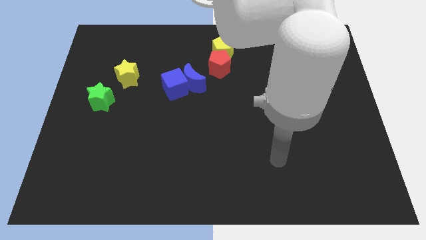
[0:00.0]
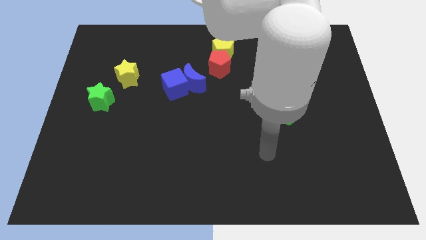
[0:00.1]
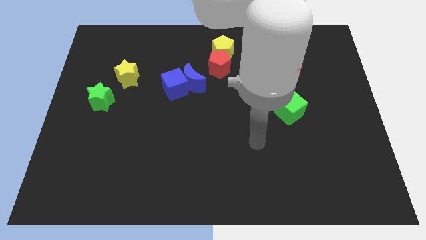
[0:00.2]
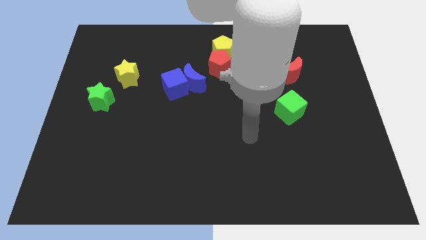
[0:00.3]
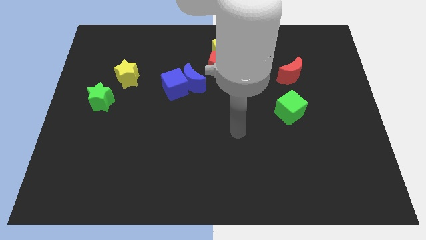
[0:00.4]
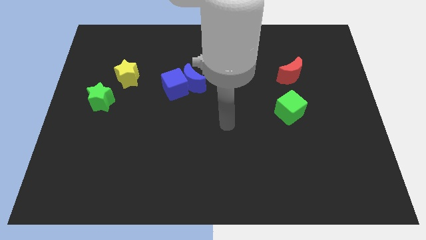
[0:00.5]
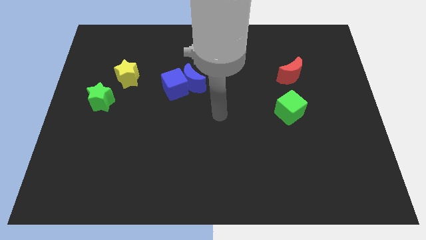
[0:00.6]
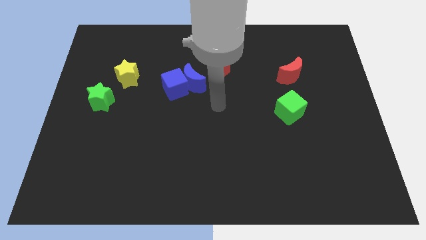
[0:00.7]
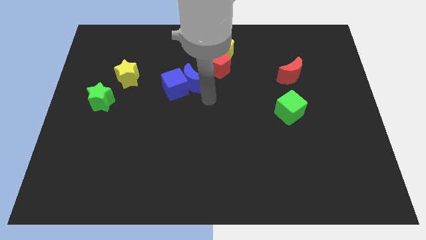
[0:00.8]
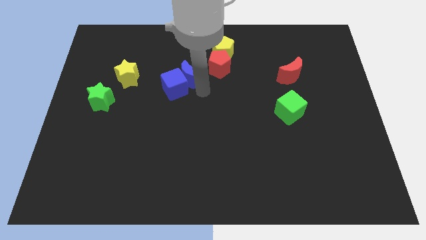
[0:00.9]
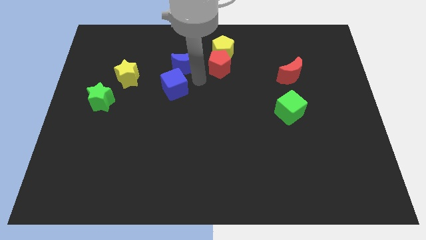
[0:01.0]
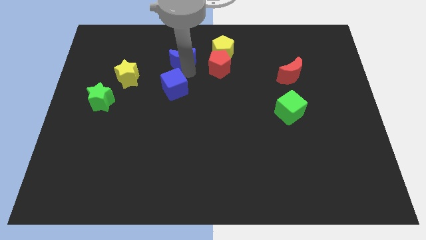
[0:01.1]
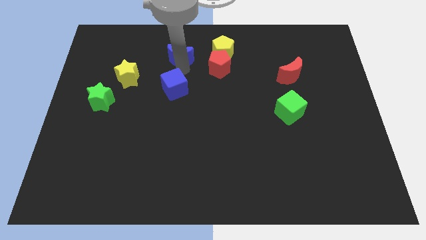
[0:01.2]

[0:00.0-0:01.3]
move the blue cube away from the blue moon

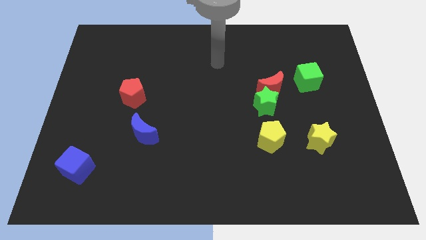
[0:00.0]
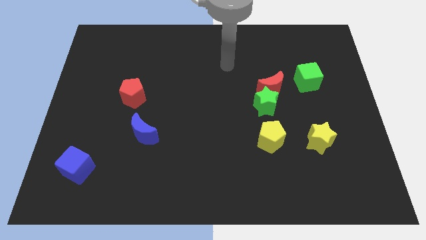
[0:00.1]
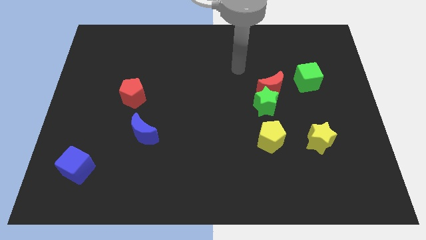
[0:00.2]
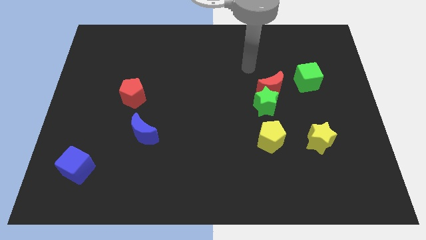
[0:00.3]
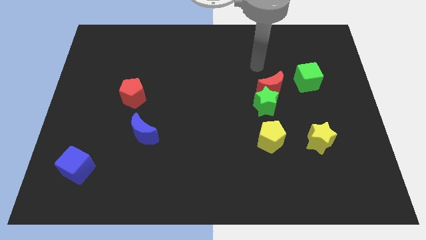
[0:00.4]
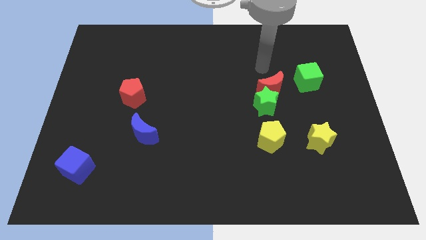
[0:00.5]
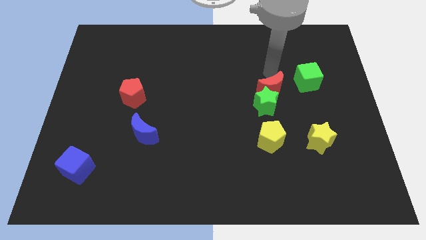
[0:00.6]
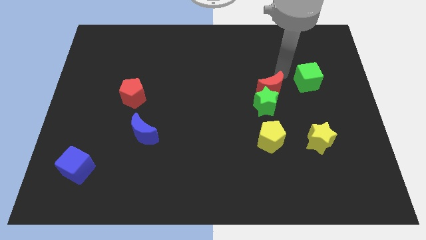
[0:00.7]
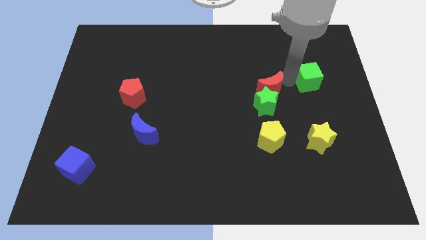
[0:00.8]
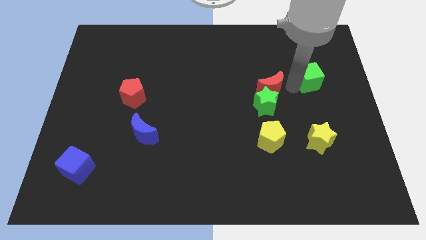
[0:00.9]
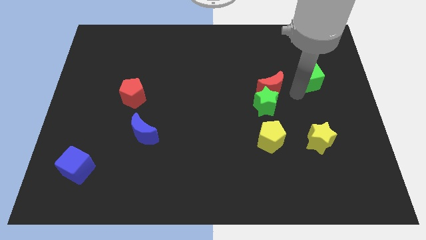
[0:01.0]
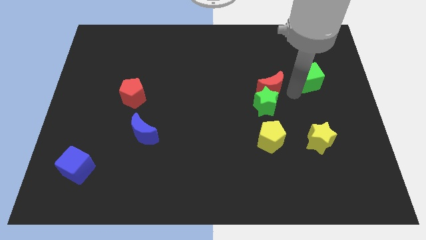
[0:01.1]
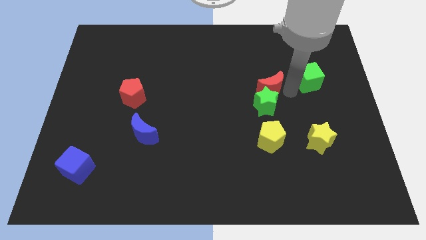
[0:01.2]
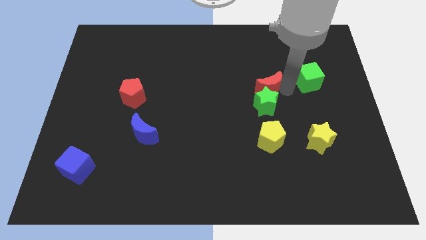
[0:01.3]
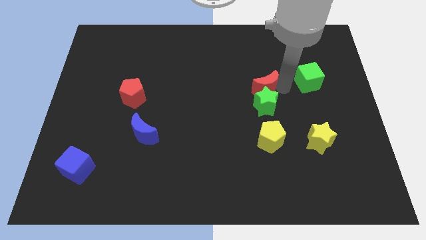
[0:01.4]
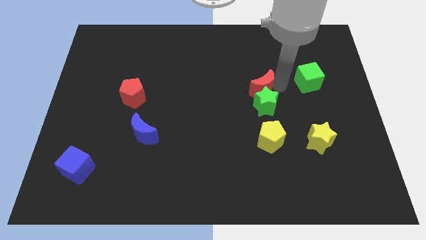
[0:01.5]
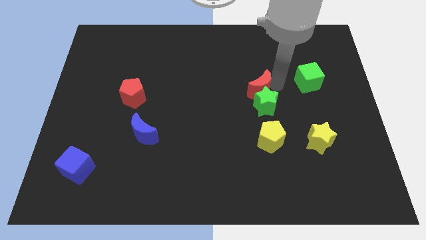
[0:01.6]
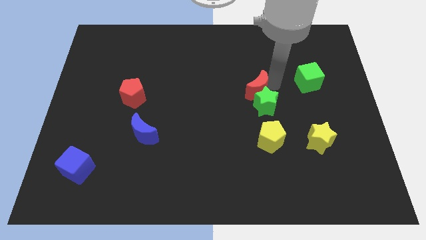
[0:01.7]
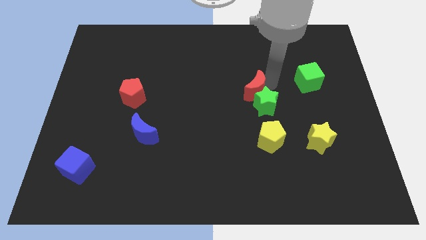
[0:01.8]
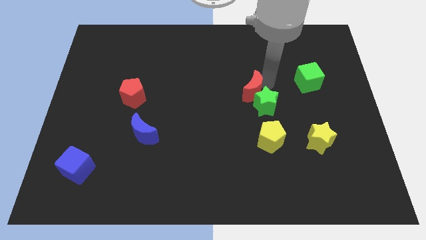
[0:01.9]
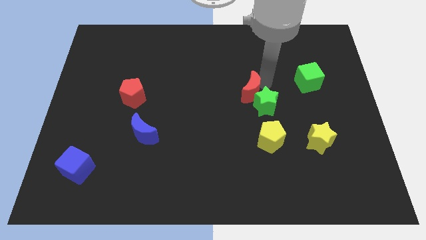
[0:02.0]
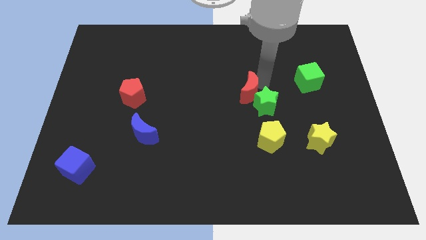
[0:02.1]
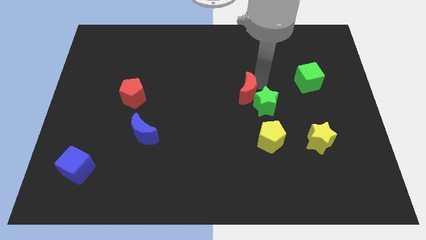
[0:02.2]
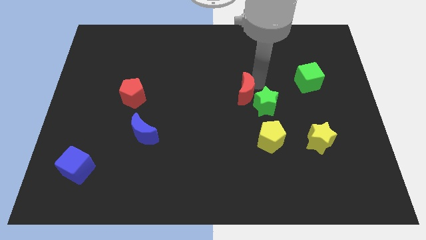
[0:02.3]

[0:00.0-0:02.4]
move the red moon away from the green star and green cube

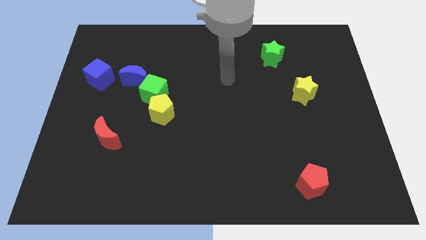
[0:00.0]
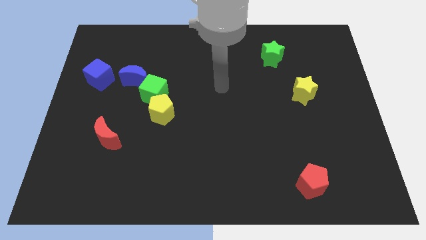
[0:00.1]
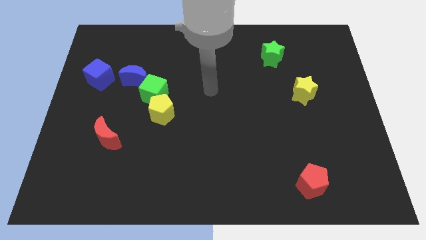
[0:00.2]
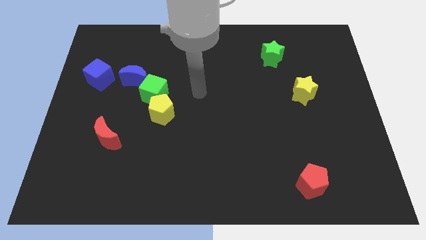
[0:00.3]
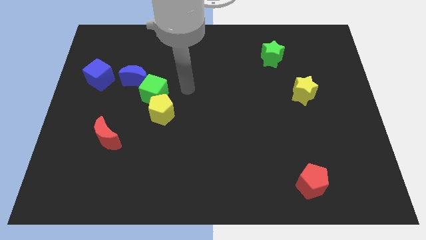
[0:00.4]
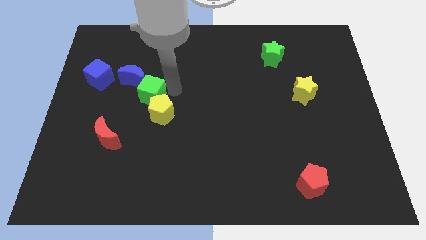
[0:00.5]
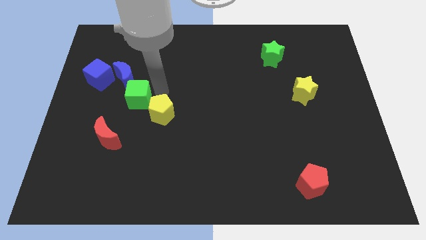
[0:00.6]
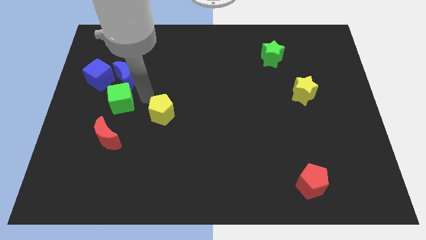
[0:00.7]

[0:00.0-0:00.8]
separate the yellow pentagon from the green cube

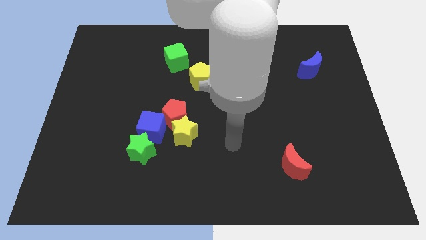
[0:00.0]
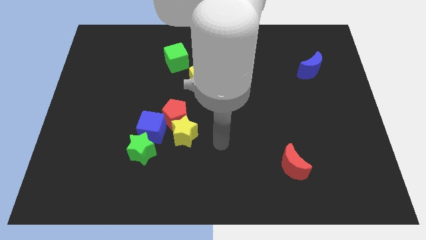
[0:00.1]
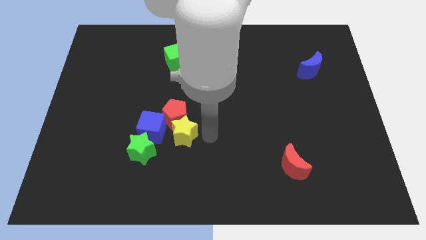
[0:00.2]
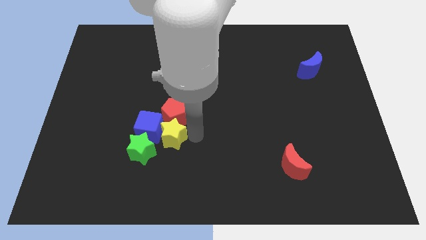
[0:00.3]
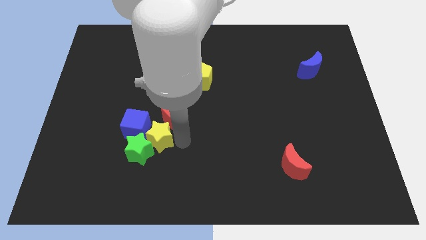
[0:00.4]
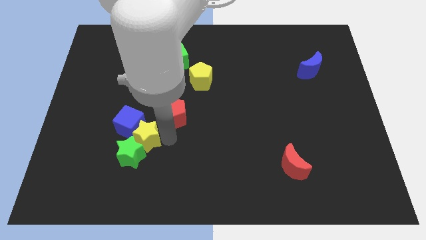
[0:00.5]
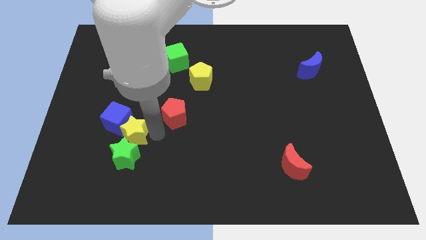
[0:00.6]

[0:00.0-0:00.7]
pull the red pentagon apart from the yellow star and blue cube

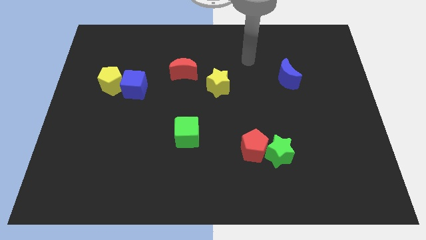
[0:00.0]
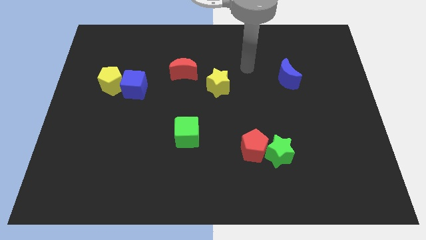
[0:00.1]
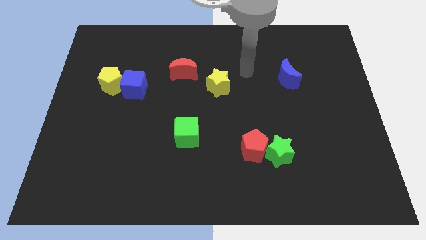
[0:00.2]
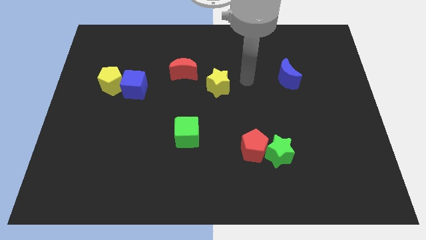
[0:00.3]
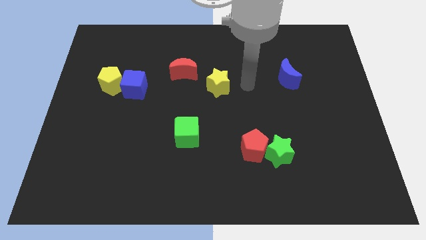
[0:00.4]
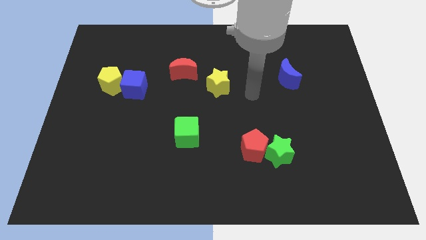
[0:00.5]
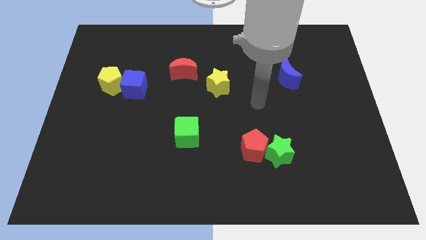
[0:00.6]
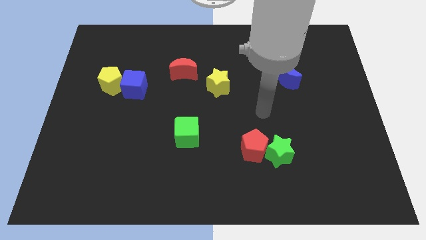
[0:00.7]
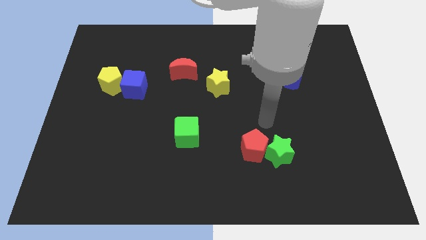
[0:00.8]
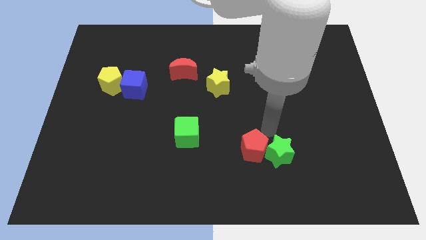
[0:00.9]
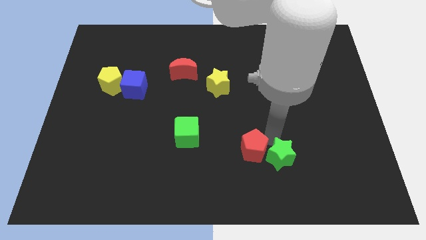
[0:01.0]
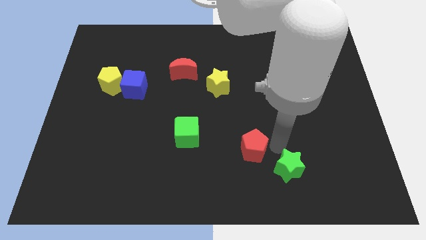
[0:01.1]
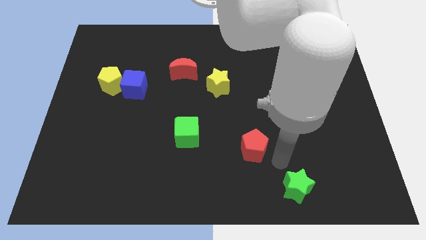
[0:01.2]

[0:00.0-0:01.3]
move the red pentagon away from the green star

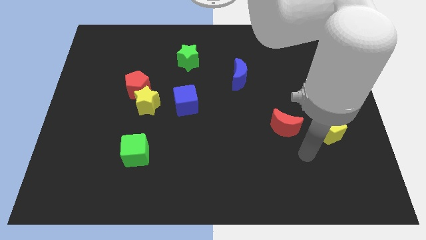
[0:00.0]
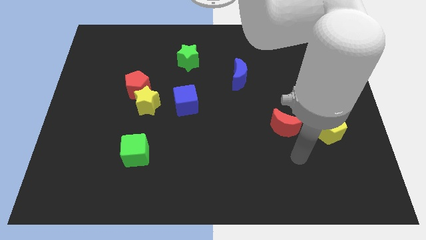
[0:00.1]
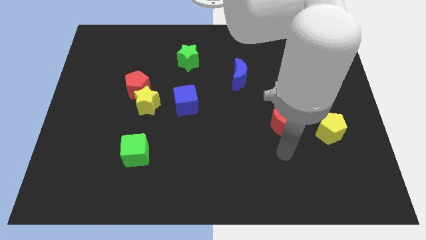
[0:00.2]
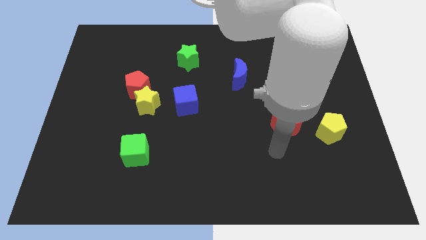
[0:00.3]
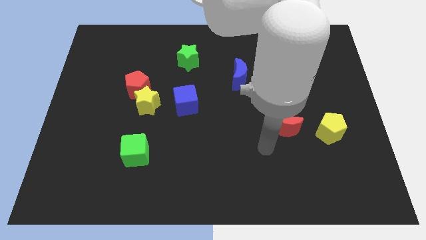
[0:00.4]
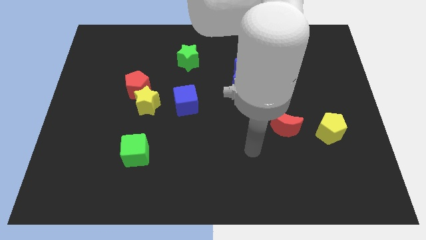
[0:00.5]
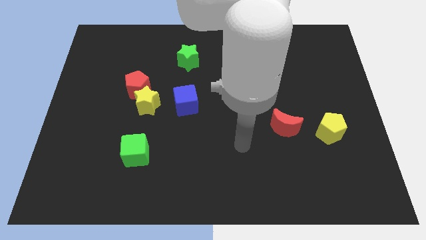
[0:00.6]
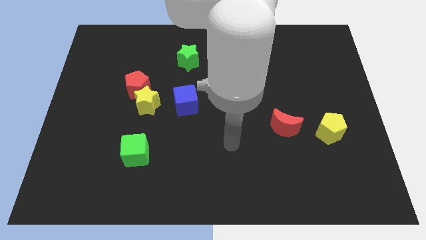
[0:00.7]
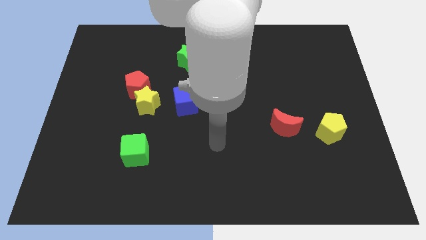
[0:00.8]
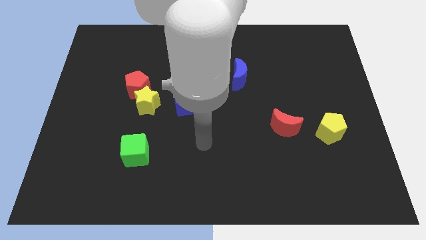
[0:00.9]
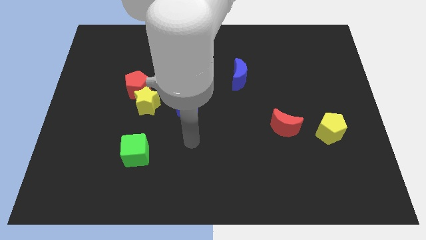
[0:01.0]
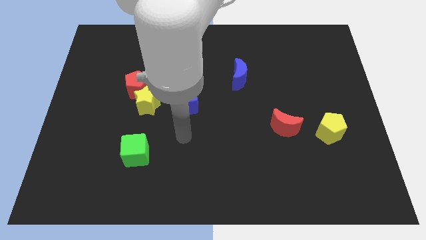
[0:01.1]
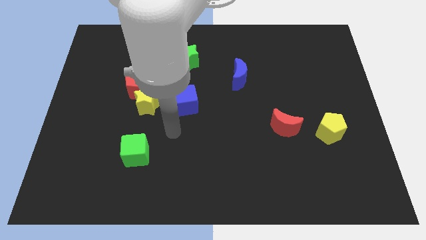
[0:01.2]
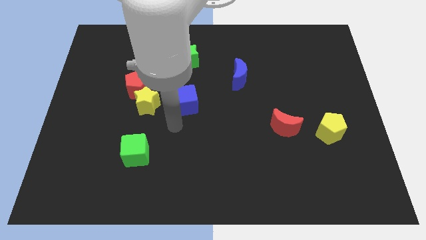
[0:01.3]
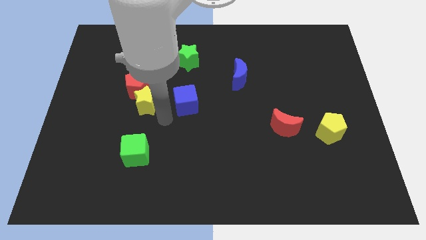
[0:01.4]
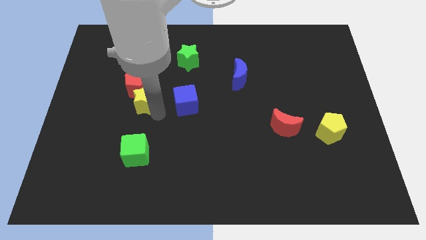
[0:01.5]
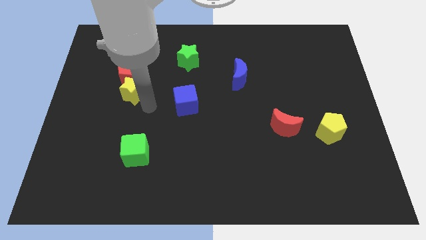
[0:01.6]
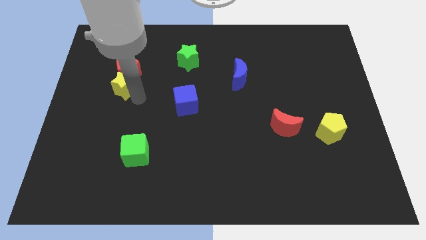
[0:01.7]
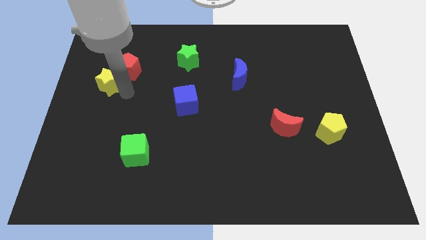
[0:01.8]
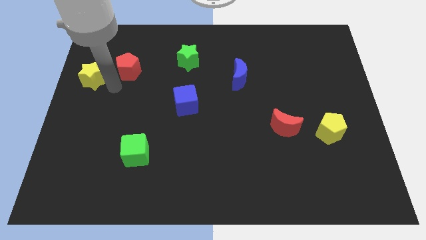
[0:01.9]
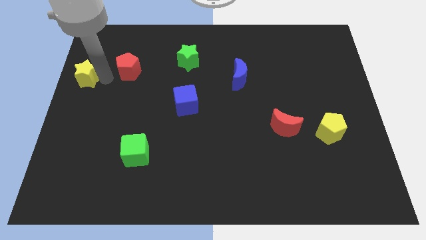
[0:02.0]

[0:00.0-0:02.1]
move the red pentagon away from the yellow star

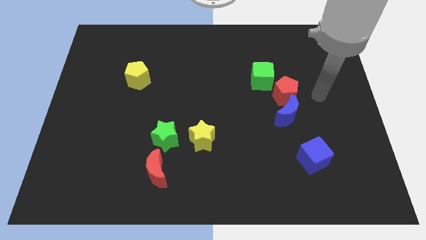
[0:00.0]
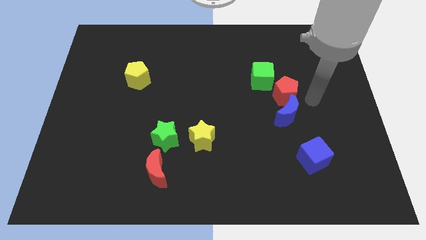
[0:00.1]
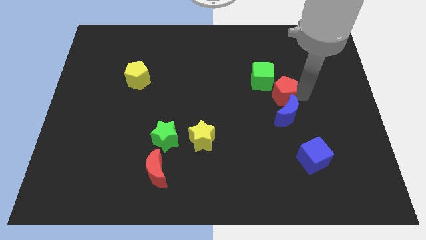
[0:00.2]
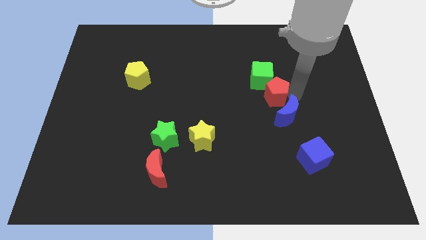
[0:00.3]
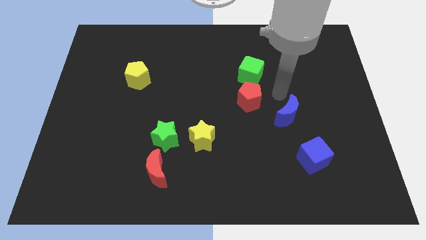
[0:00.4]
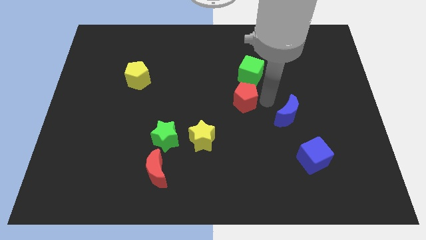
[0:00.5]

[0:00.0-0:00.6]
separate the blue moon from the red pentagon

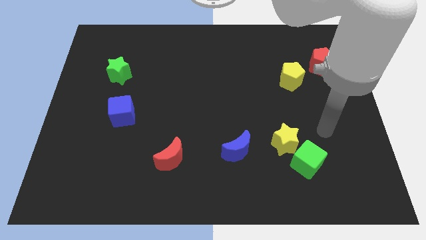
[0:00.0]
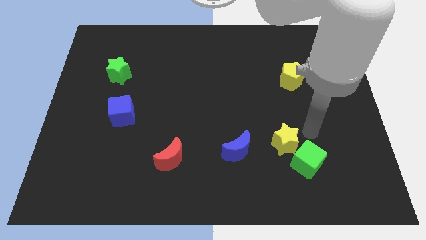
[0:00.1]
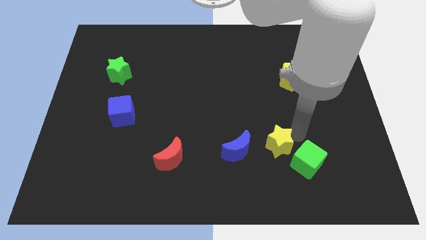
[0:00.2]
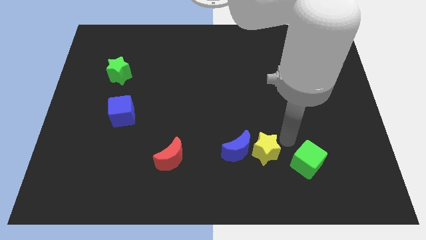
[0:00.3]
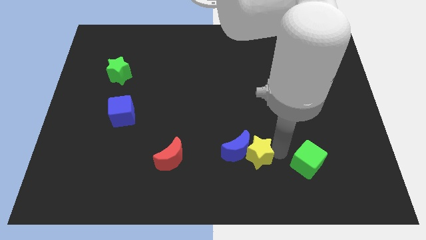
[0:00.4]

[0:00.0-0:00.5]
move the green cube away from the yellow star
